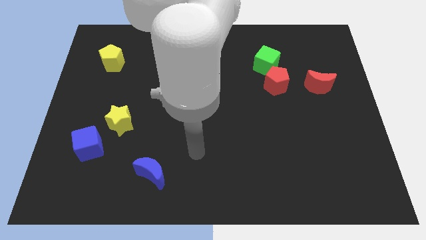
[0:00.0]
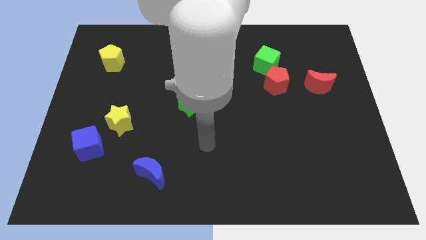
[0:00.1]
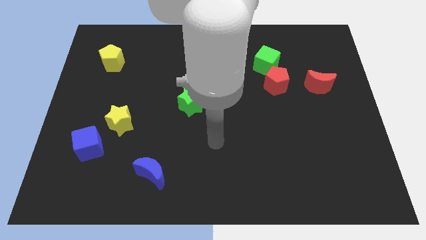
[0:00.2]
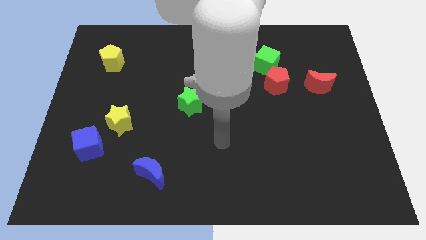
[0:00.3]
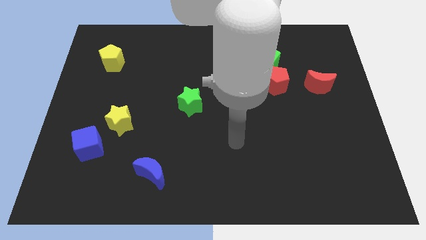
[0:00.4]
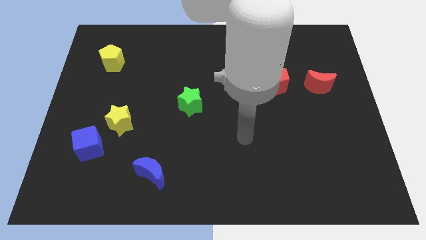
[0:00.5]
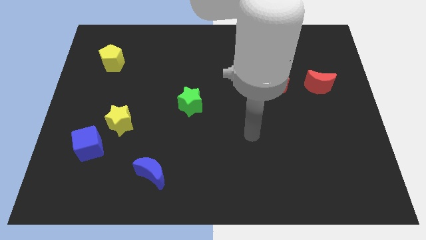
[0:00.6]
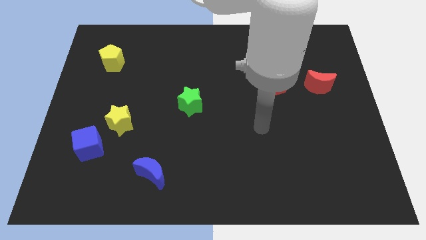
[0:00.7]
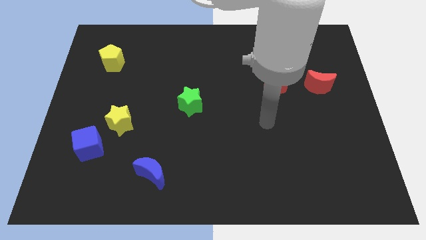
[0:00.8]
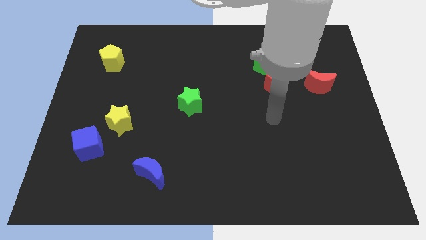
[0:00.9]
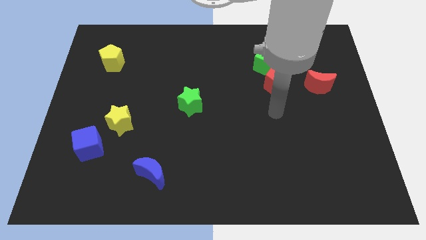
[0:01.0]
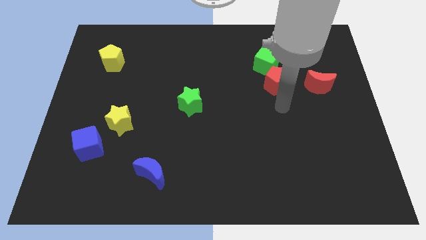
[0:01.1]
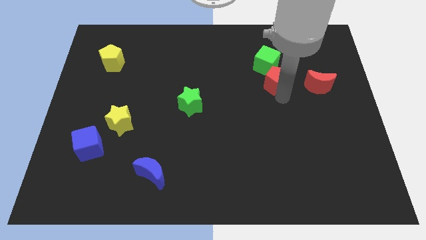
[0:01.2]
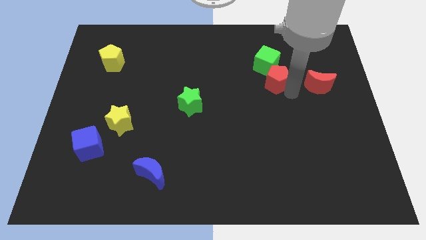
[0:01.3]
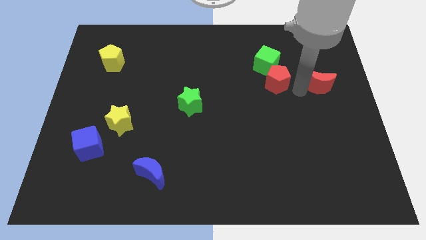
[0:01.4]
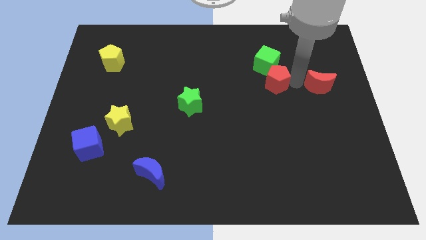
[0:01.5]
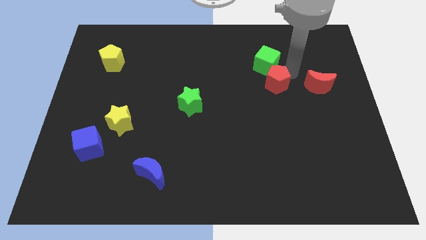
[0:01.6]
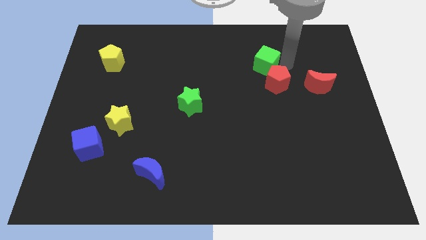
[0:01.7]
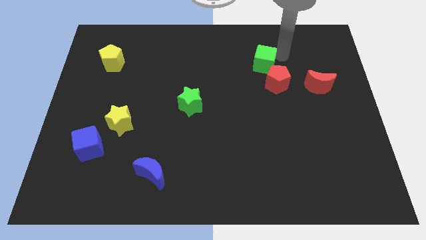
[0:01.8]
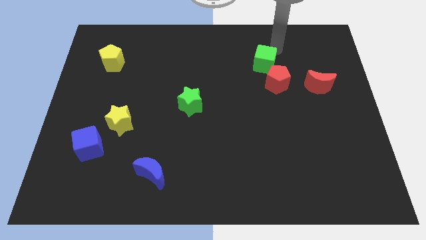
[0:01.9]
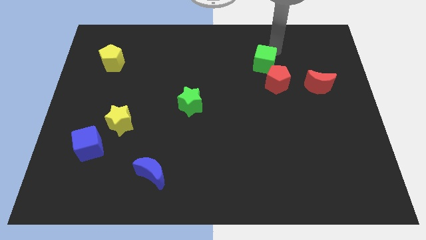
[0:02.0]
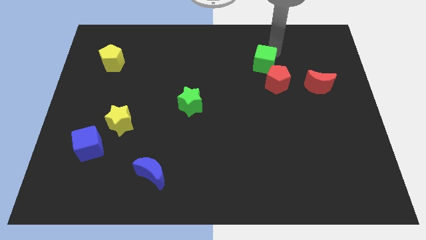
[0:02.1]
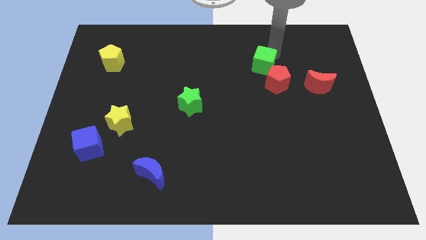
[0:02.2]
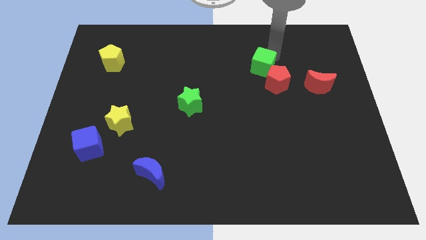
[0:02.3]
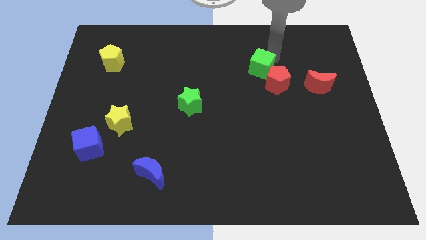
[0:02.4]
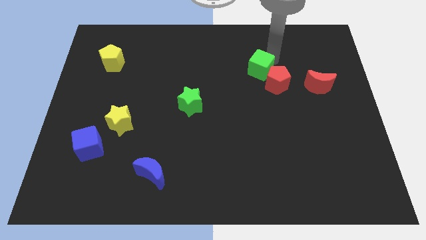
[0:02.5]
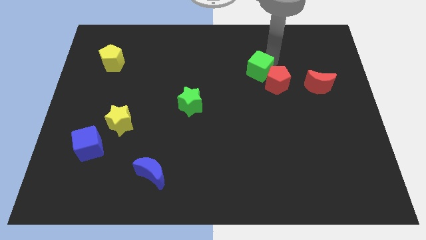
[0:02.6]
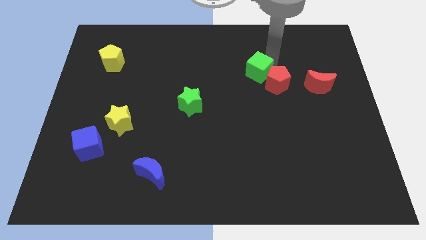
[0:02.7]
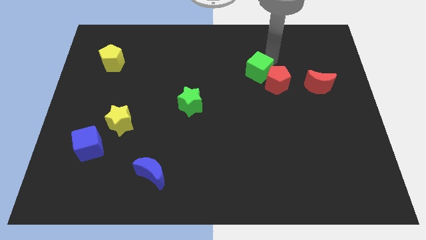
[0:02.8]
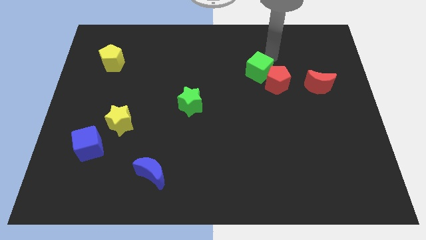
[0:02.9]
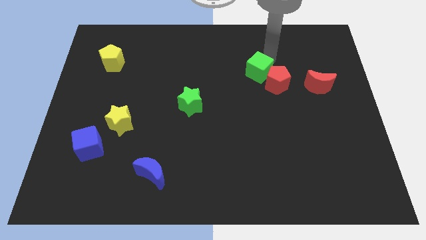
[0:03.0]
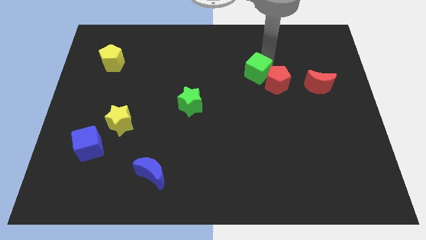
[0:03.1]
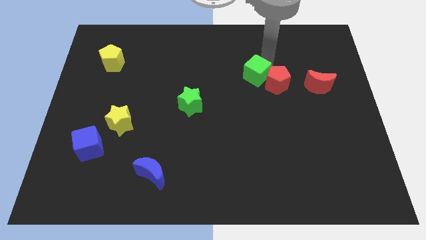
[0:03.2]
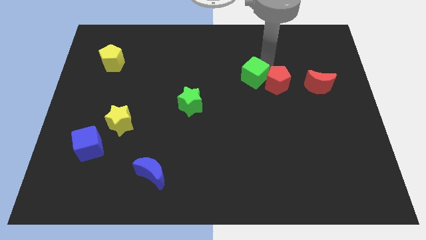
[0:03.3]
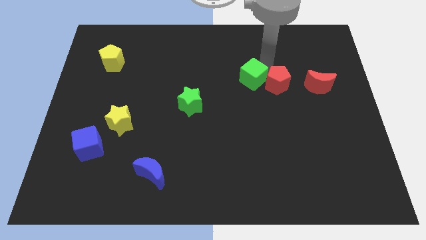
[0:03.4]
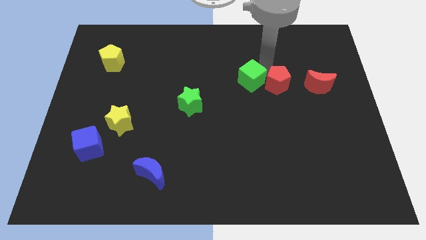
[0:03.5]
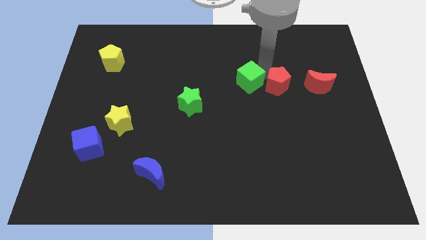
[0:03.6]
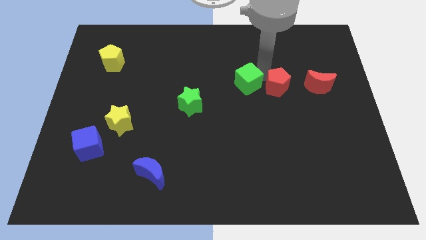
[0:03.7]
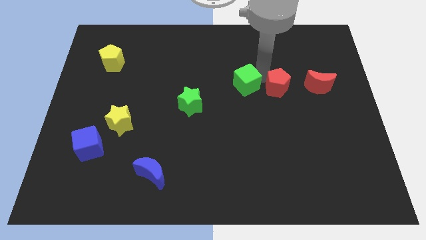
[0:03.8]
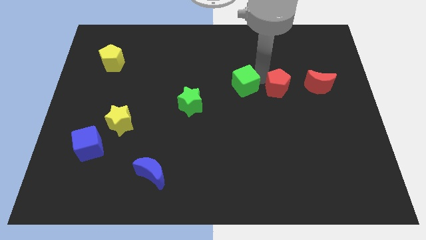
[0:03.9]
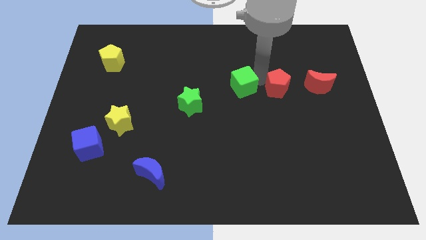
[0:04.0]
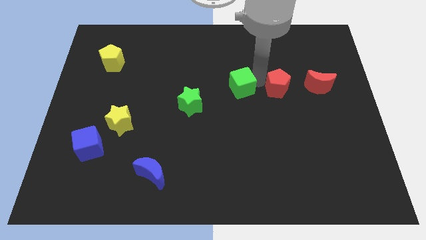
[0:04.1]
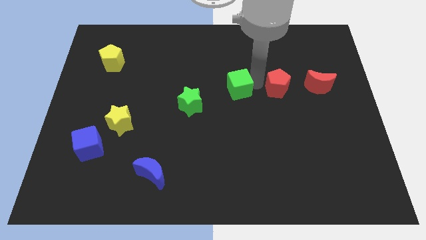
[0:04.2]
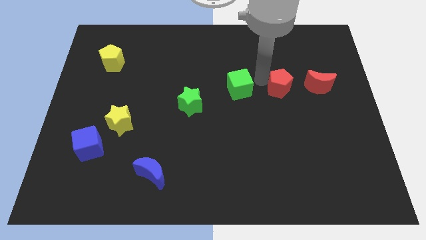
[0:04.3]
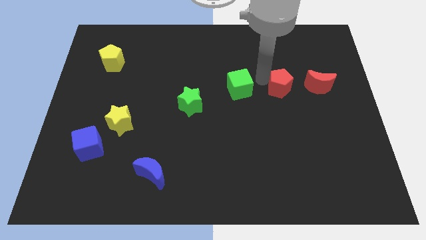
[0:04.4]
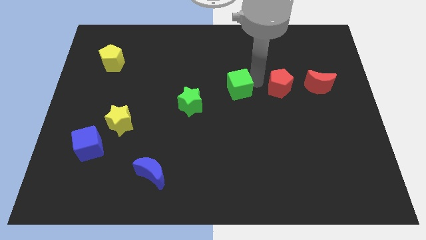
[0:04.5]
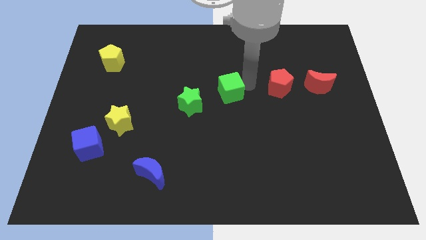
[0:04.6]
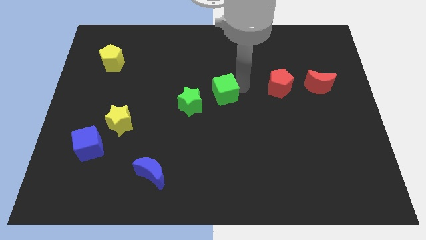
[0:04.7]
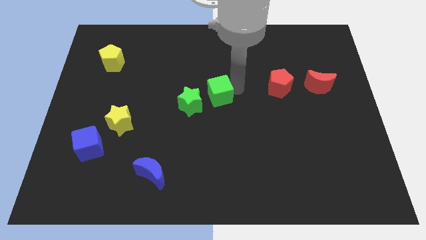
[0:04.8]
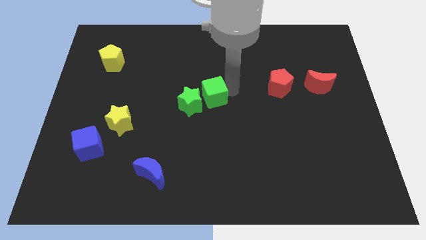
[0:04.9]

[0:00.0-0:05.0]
put the green cube towards the green star

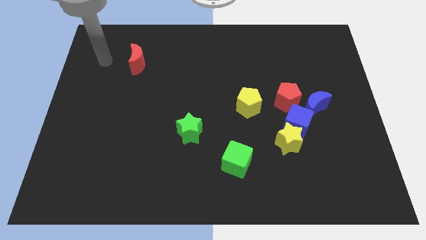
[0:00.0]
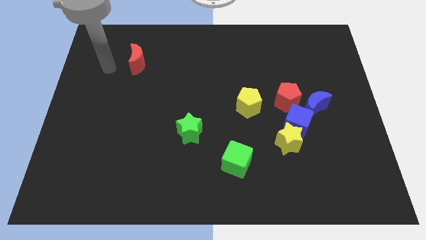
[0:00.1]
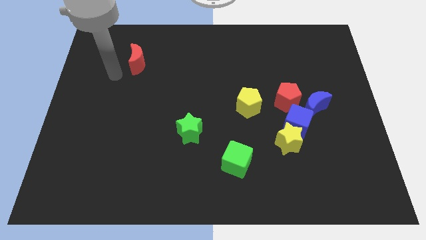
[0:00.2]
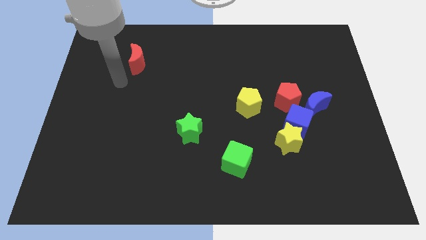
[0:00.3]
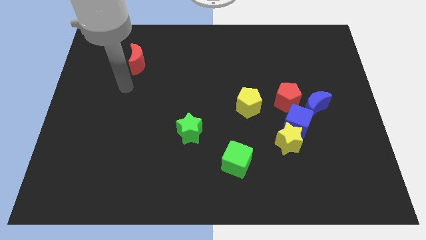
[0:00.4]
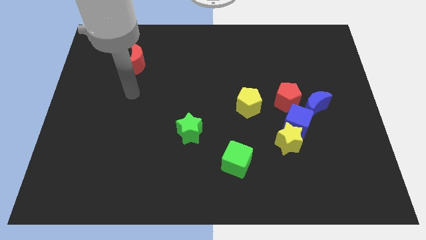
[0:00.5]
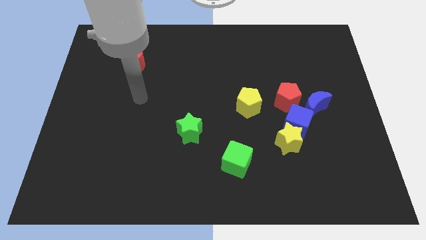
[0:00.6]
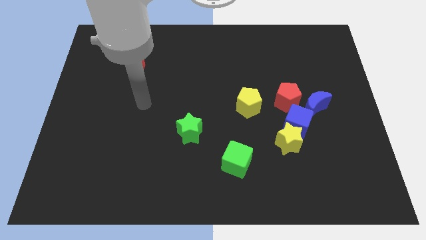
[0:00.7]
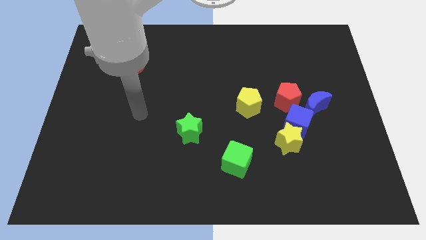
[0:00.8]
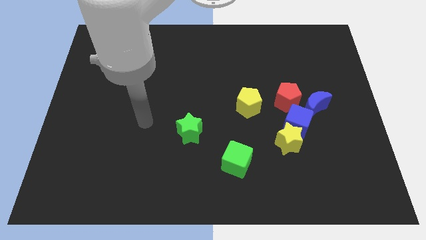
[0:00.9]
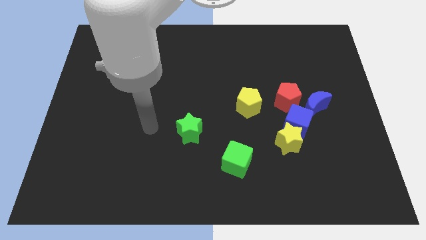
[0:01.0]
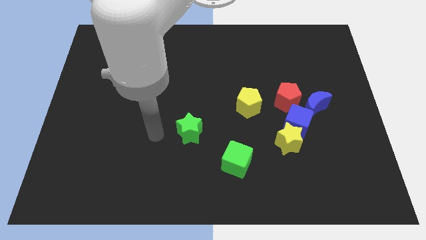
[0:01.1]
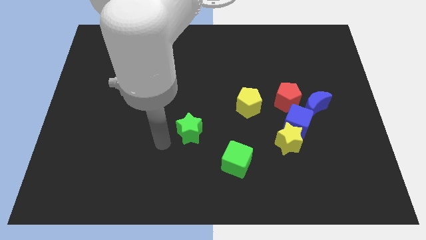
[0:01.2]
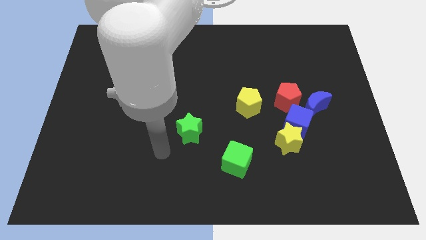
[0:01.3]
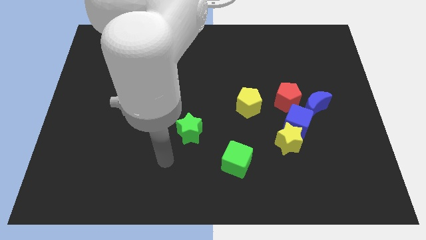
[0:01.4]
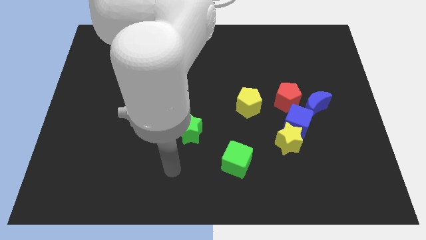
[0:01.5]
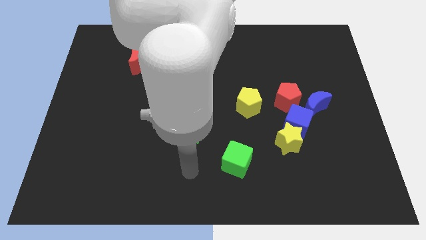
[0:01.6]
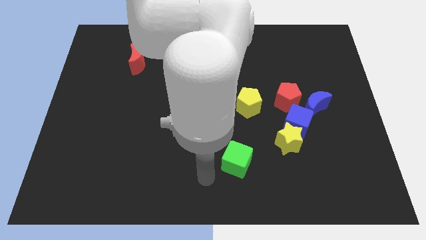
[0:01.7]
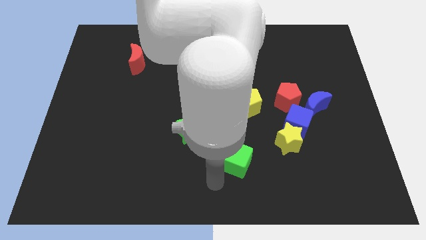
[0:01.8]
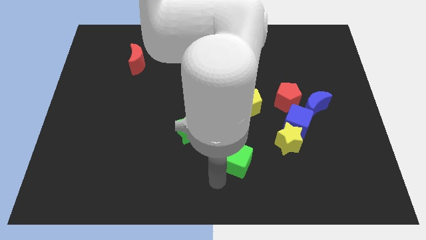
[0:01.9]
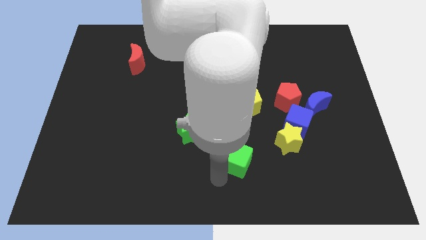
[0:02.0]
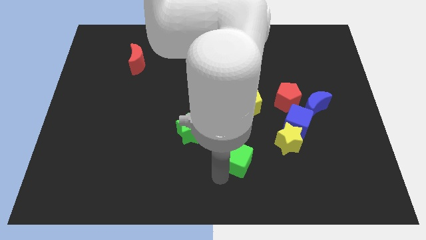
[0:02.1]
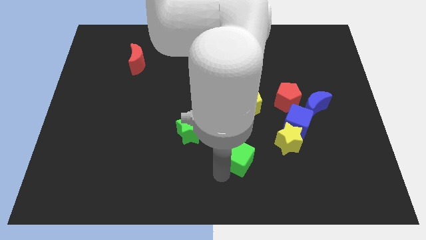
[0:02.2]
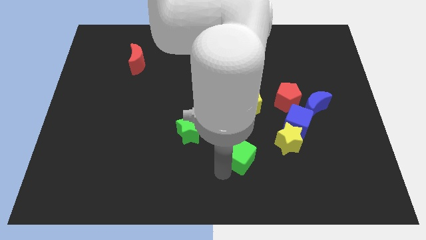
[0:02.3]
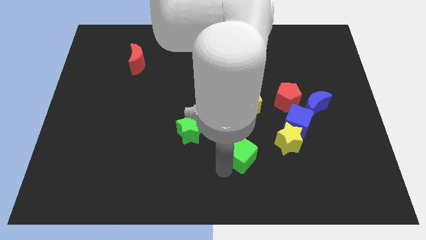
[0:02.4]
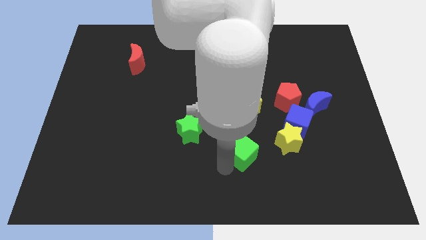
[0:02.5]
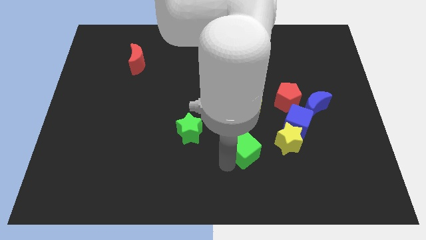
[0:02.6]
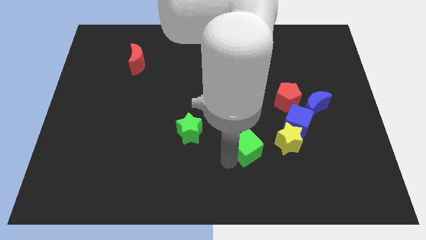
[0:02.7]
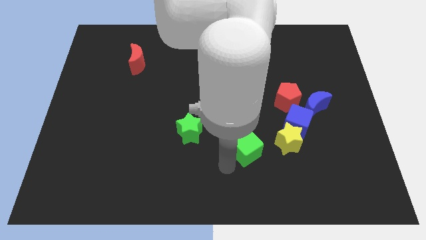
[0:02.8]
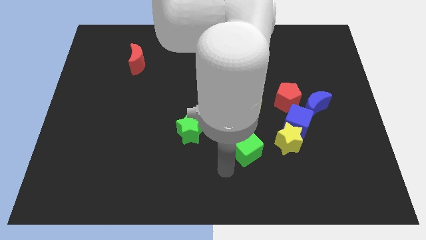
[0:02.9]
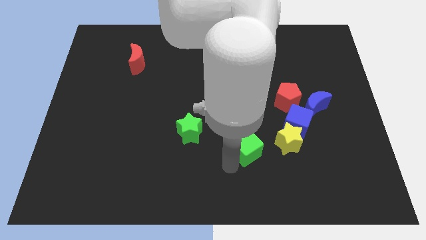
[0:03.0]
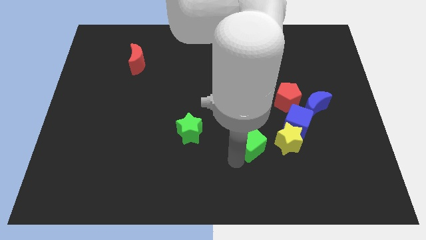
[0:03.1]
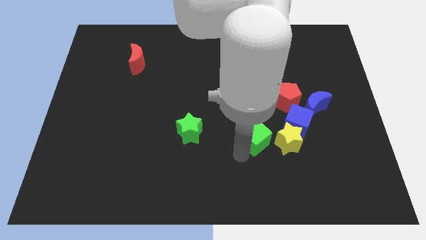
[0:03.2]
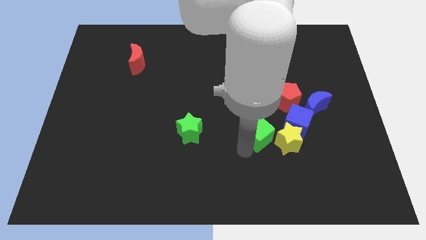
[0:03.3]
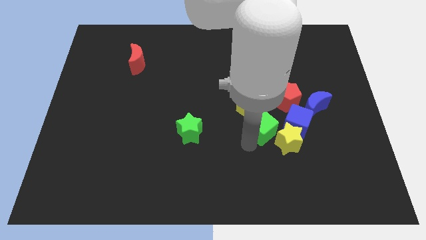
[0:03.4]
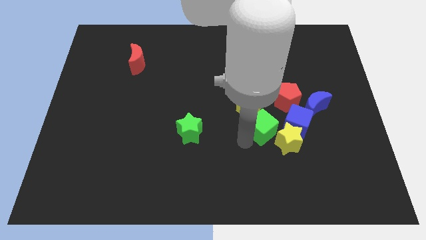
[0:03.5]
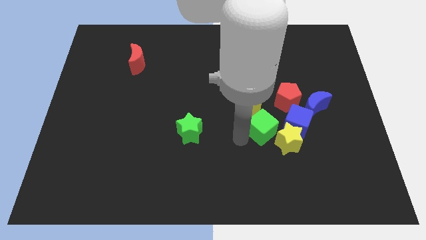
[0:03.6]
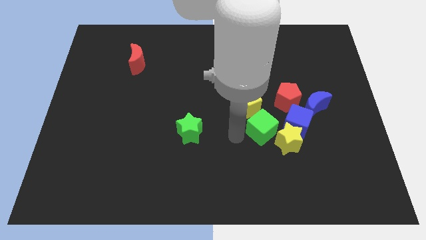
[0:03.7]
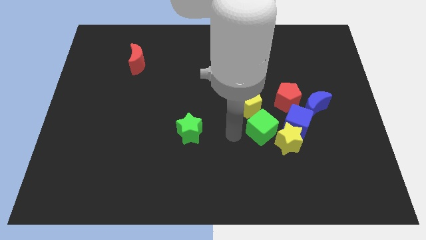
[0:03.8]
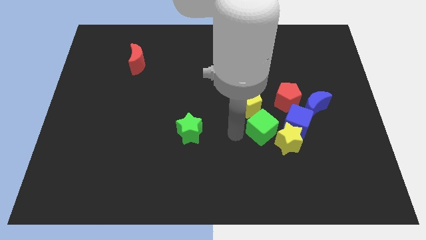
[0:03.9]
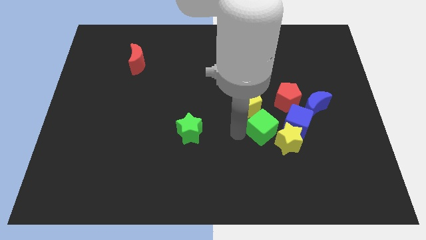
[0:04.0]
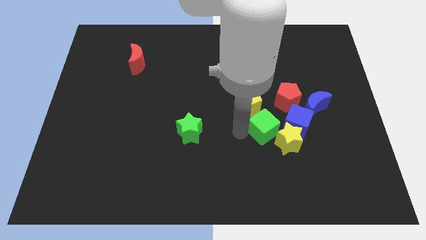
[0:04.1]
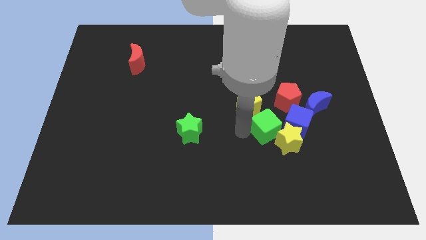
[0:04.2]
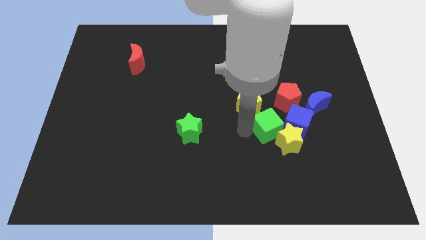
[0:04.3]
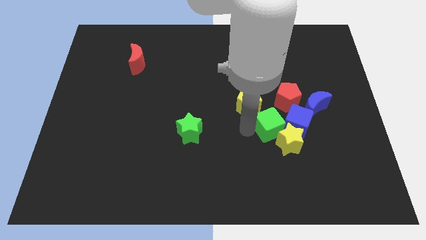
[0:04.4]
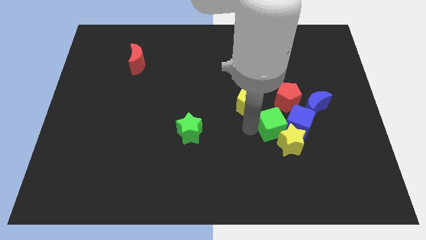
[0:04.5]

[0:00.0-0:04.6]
push the green cube close to the blue cube
